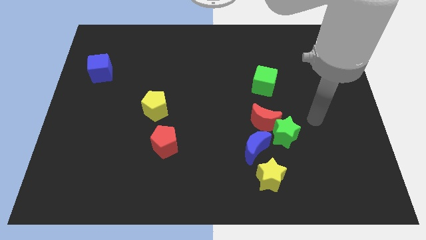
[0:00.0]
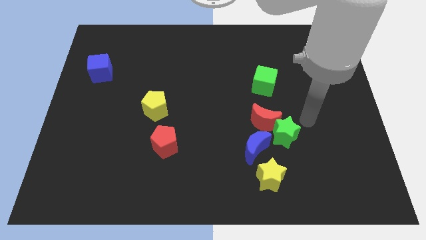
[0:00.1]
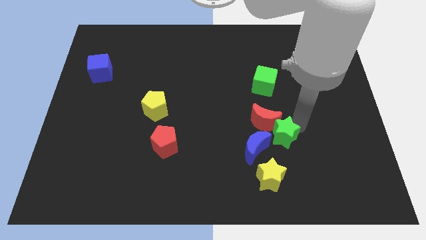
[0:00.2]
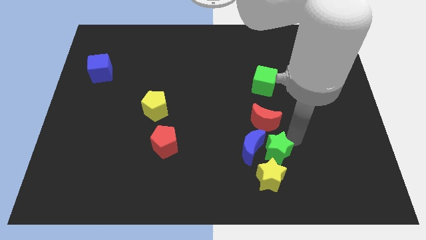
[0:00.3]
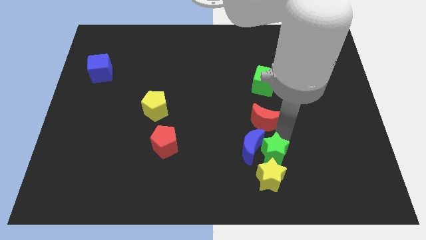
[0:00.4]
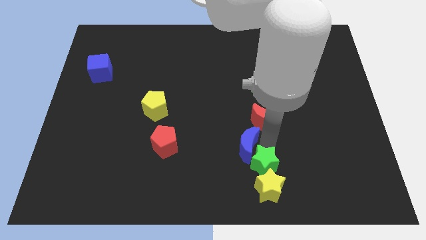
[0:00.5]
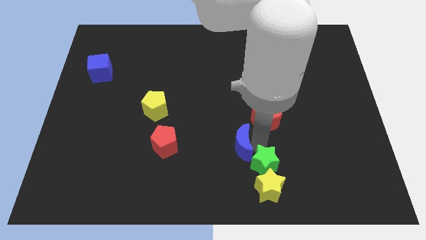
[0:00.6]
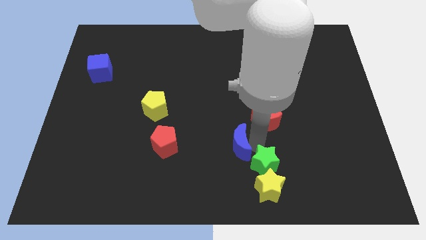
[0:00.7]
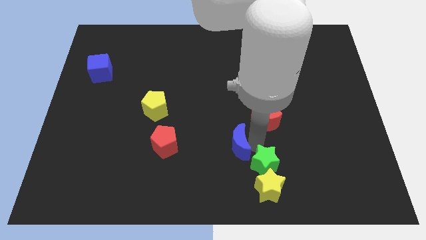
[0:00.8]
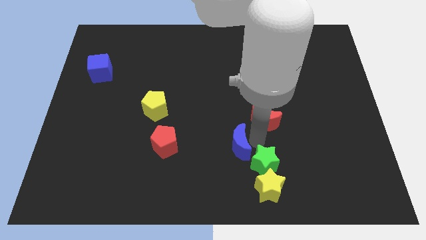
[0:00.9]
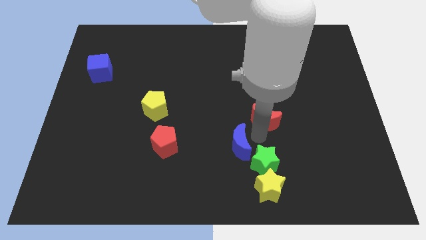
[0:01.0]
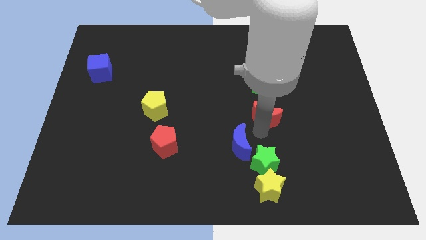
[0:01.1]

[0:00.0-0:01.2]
separate the red moon from the green star and blue moon

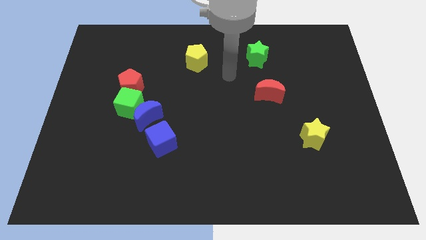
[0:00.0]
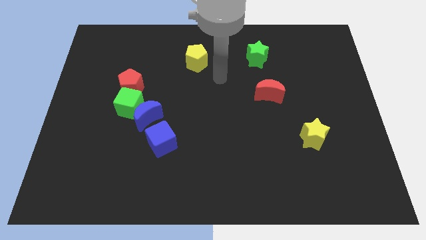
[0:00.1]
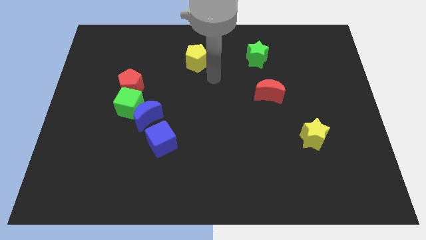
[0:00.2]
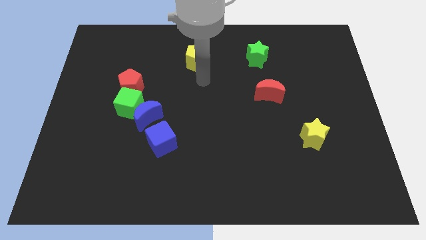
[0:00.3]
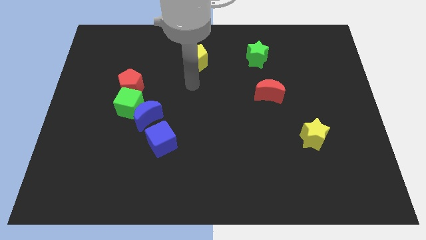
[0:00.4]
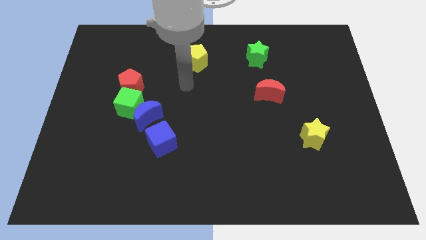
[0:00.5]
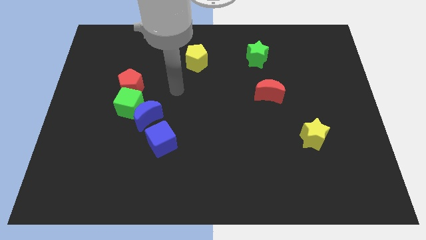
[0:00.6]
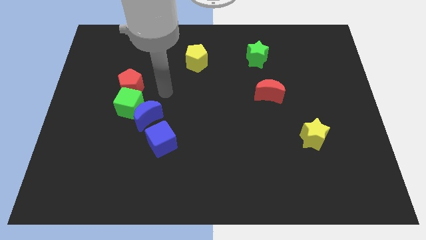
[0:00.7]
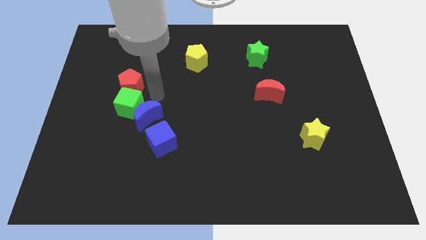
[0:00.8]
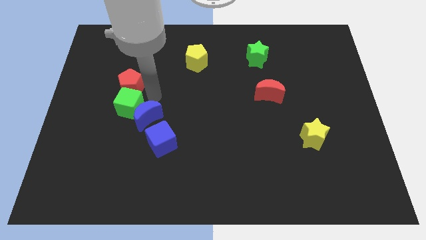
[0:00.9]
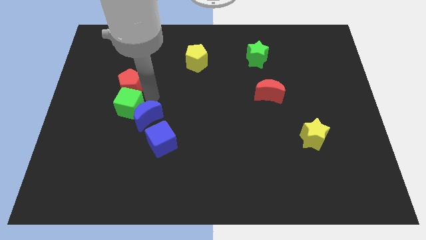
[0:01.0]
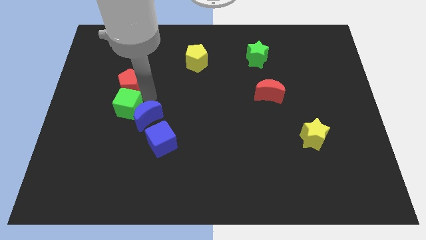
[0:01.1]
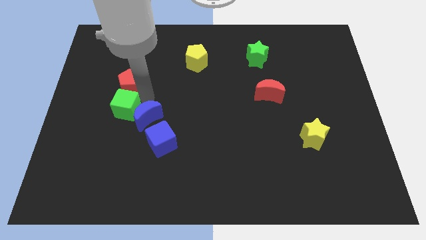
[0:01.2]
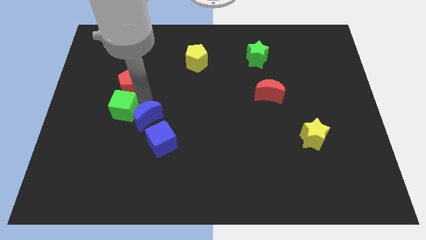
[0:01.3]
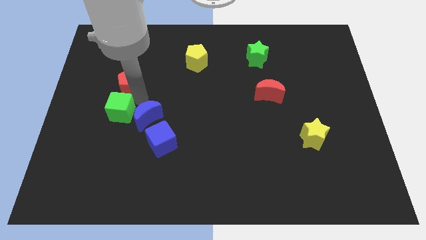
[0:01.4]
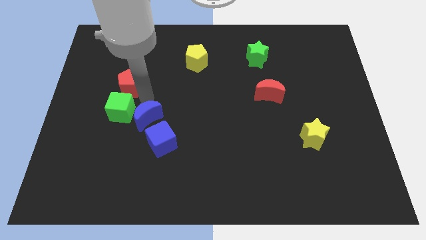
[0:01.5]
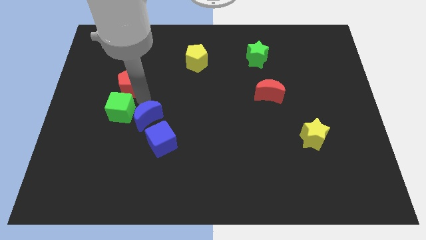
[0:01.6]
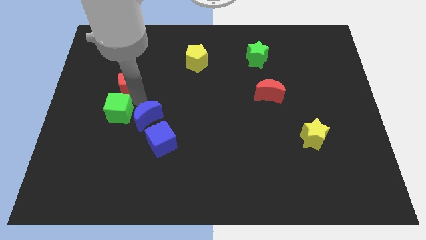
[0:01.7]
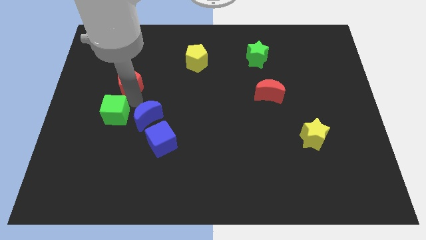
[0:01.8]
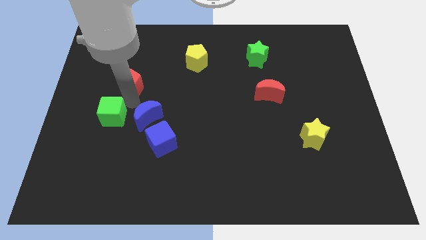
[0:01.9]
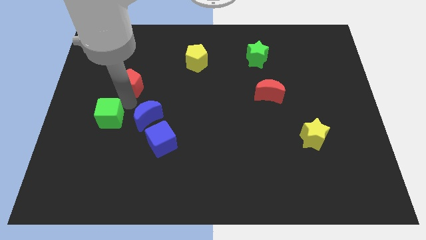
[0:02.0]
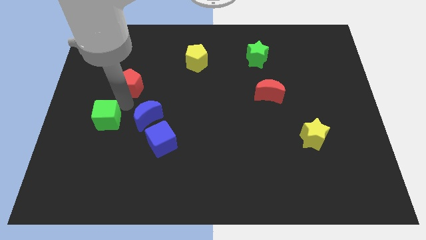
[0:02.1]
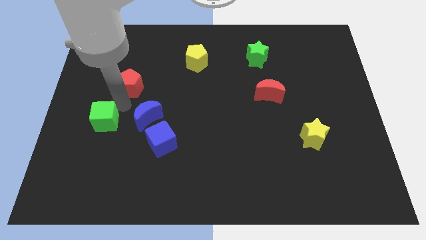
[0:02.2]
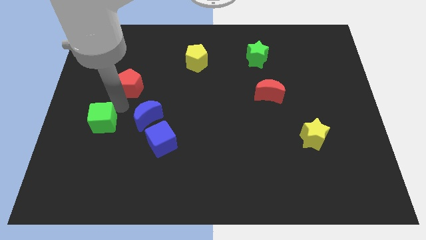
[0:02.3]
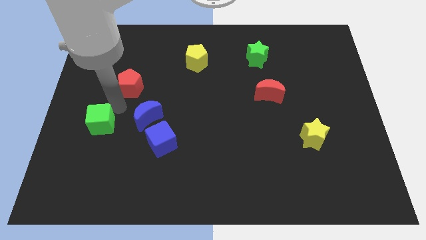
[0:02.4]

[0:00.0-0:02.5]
separate the green cube from the blue moon and red pentagon

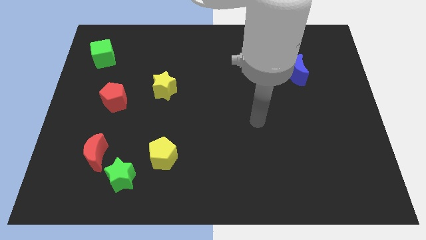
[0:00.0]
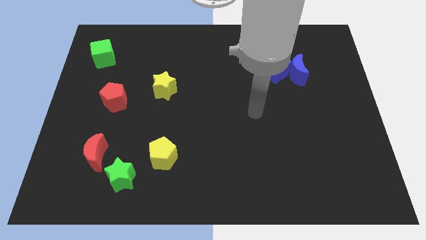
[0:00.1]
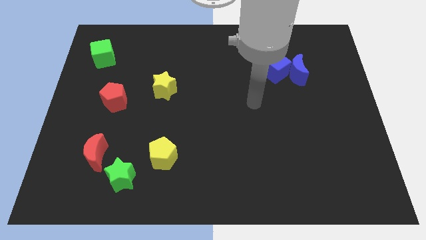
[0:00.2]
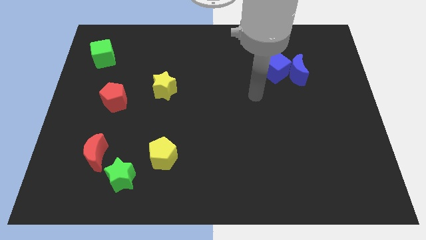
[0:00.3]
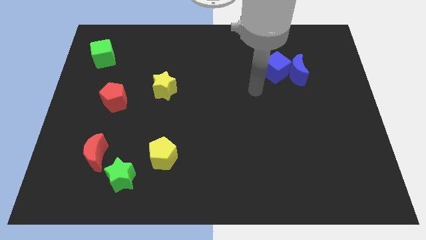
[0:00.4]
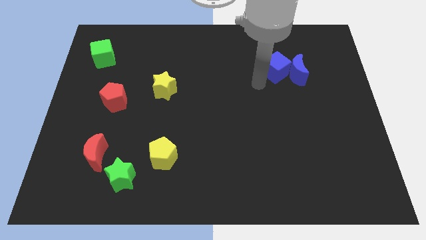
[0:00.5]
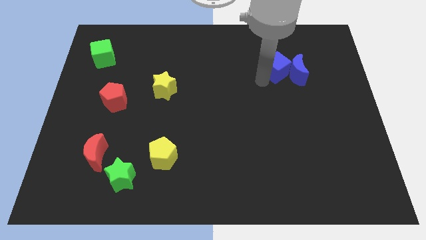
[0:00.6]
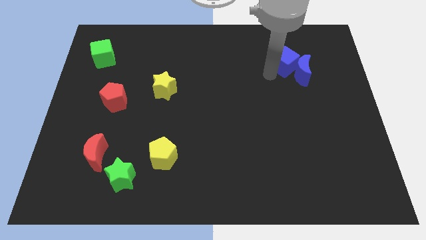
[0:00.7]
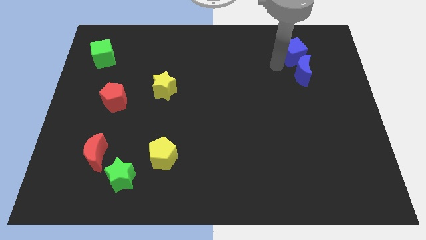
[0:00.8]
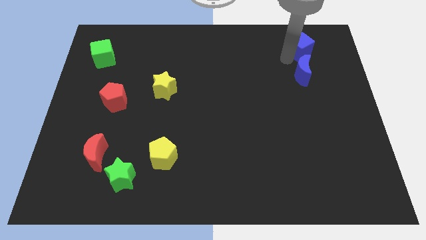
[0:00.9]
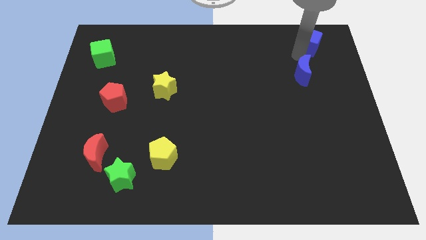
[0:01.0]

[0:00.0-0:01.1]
separate the blue moon from the blue cube

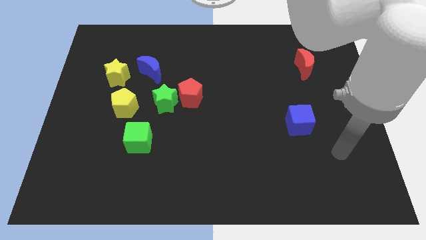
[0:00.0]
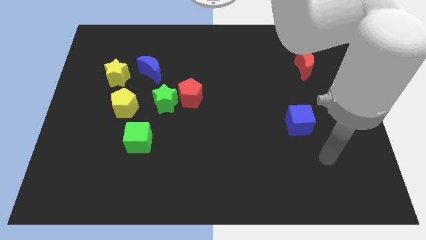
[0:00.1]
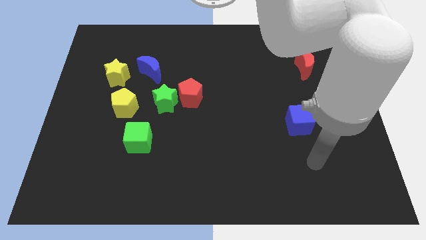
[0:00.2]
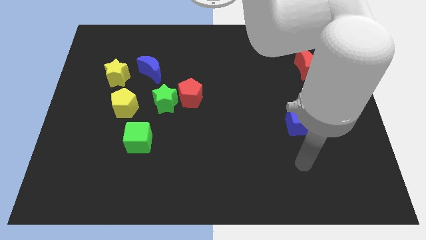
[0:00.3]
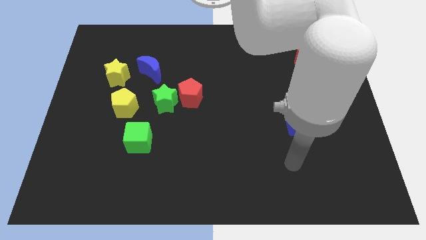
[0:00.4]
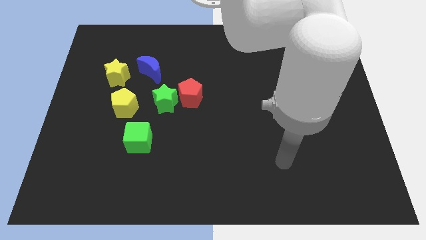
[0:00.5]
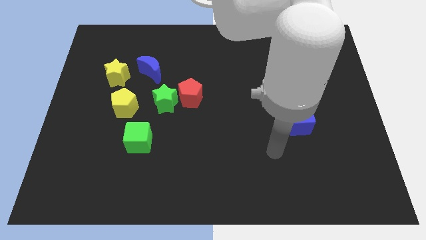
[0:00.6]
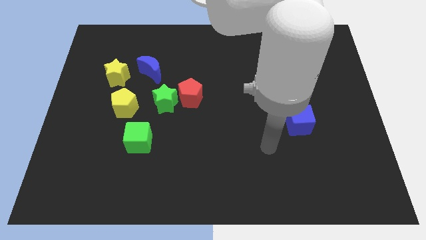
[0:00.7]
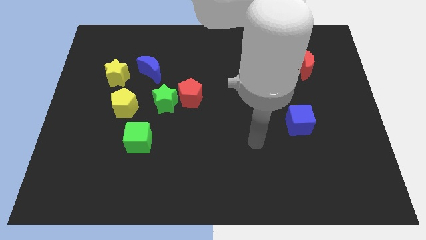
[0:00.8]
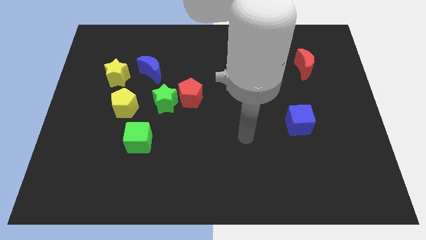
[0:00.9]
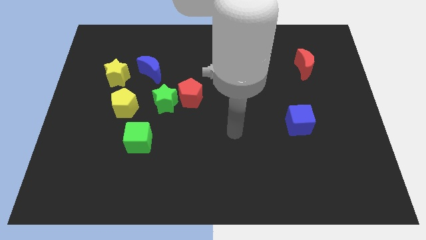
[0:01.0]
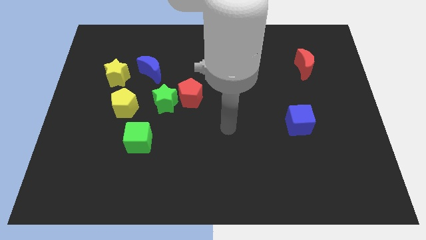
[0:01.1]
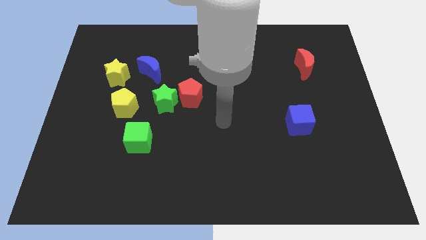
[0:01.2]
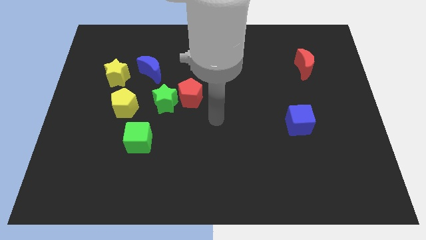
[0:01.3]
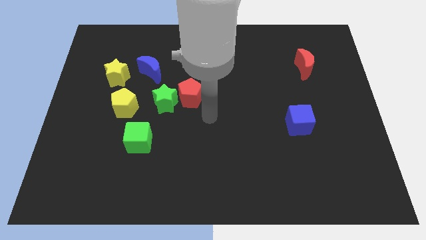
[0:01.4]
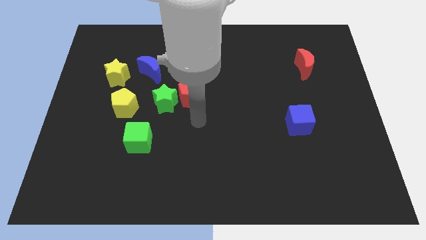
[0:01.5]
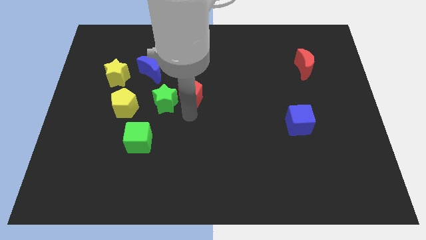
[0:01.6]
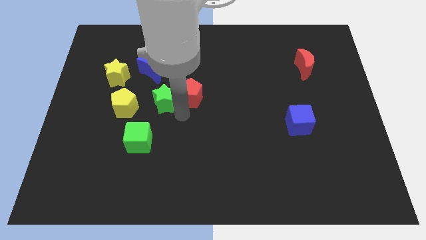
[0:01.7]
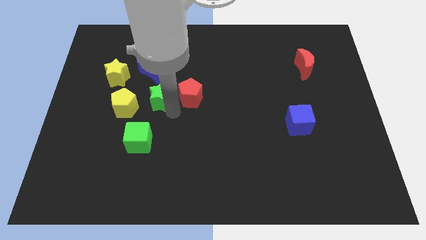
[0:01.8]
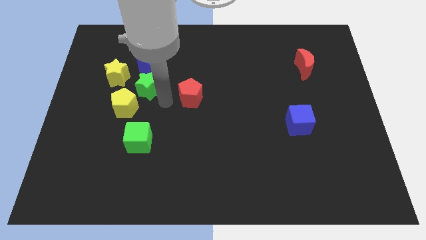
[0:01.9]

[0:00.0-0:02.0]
pull the red pentagon apart from the green star

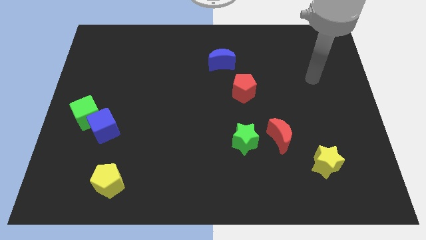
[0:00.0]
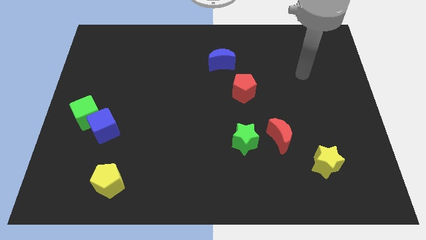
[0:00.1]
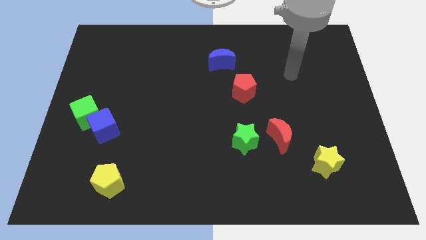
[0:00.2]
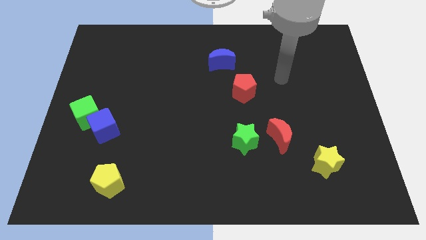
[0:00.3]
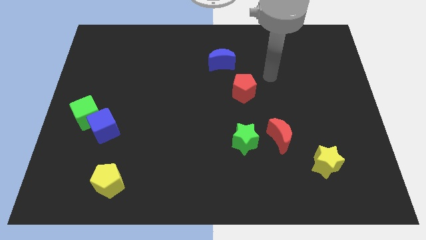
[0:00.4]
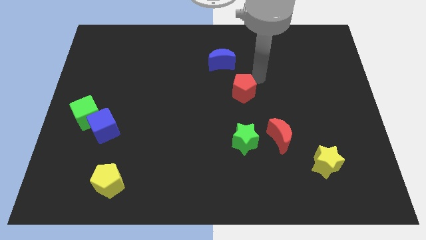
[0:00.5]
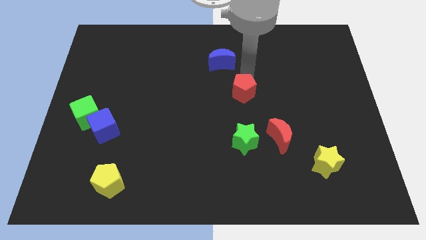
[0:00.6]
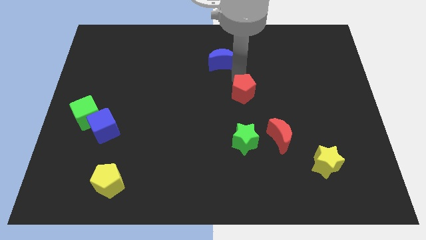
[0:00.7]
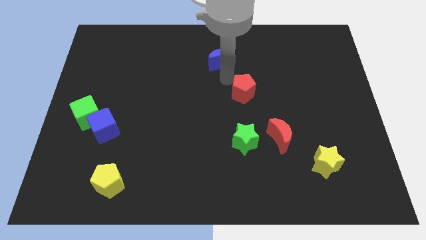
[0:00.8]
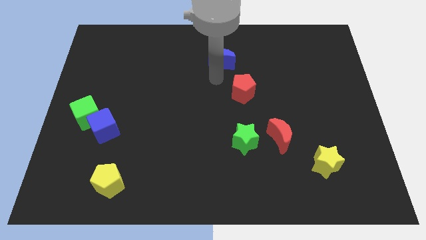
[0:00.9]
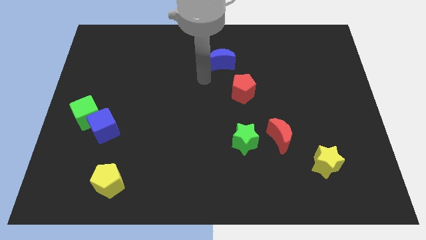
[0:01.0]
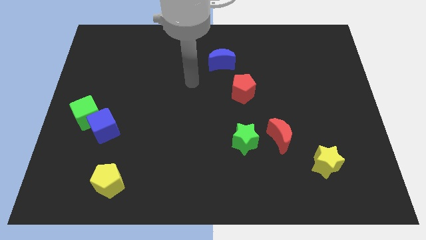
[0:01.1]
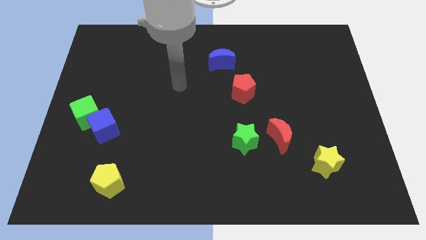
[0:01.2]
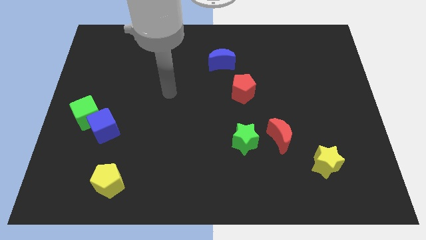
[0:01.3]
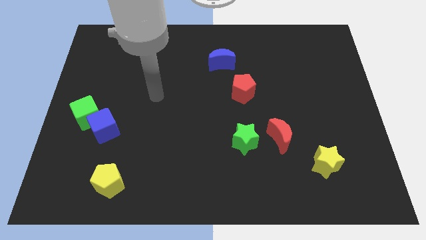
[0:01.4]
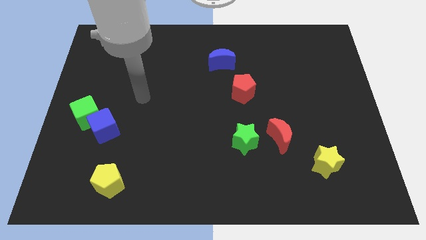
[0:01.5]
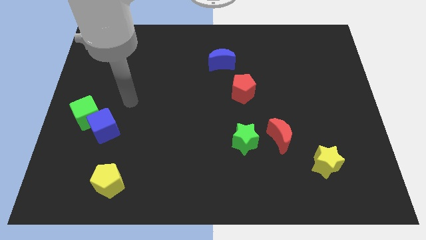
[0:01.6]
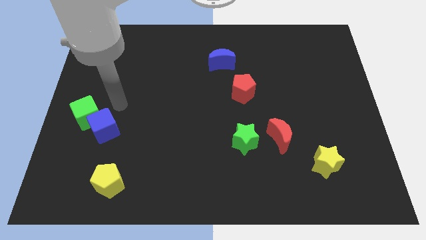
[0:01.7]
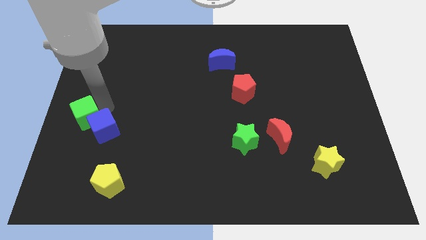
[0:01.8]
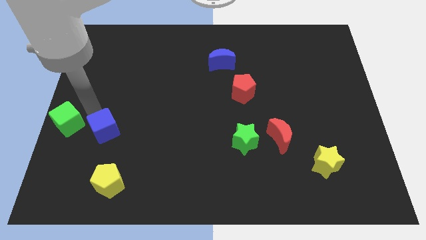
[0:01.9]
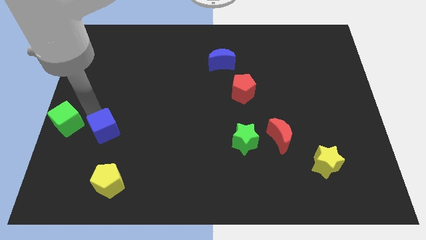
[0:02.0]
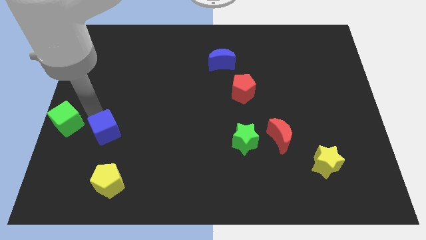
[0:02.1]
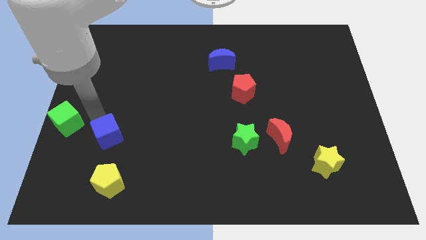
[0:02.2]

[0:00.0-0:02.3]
move the blue cube away from the green cube

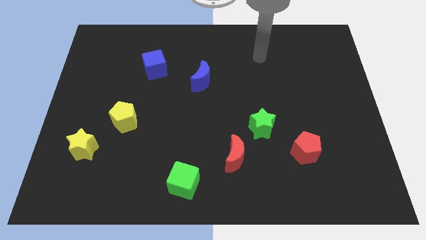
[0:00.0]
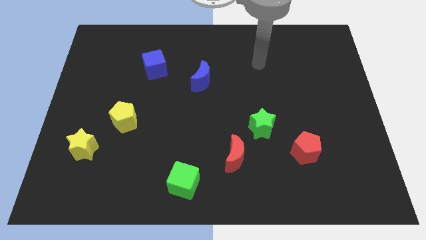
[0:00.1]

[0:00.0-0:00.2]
move the red moon away from the green star
